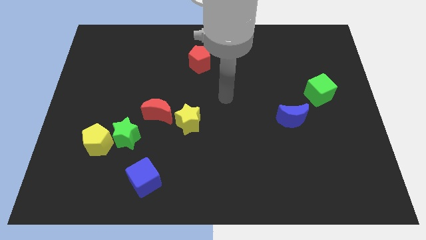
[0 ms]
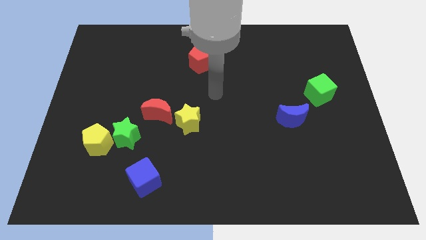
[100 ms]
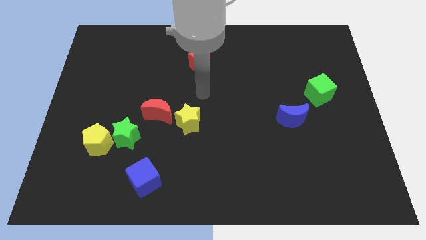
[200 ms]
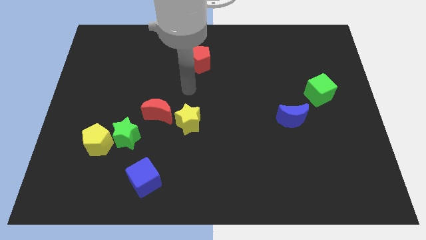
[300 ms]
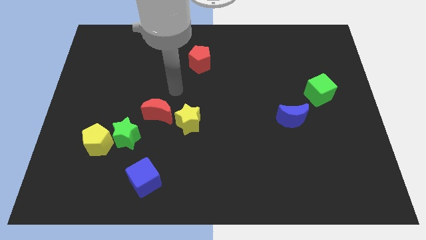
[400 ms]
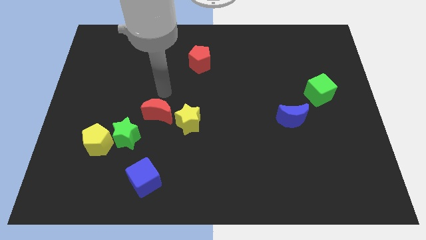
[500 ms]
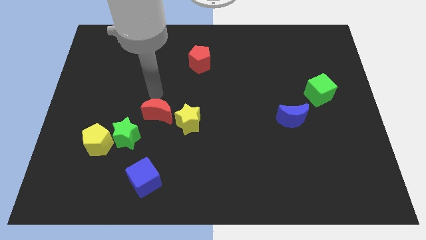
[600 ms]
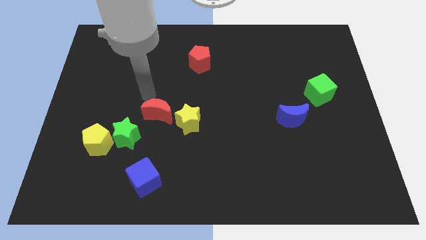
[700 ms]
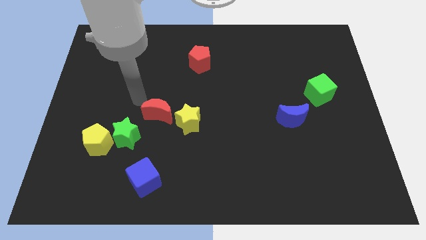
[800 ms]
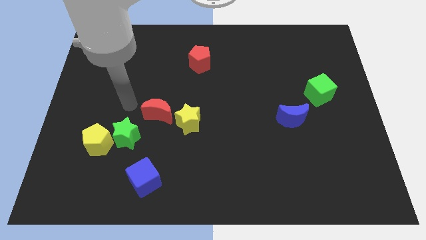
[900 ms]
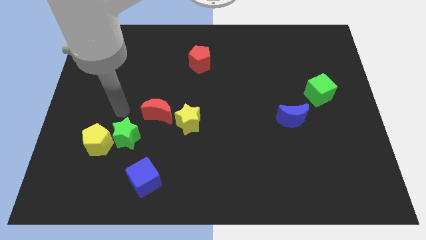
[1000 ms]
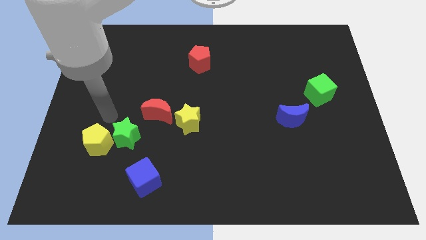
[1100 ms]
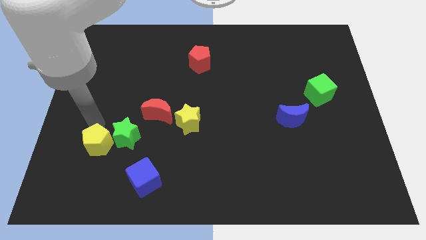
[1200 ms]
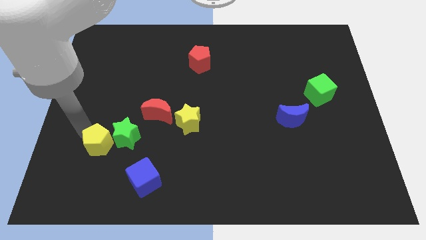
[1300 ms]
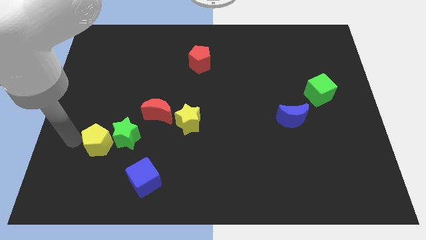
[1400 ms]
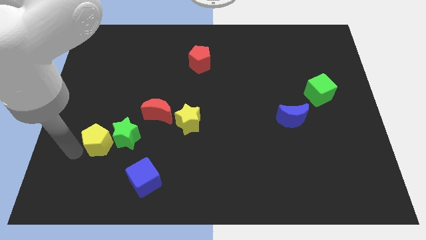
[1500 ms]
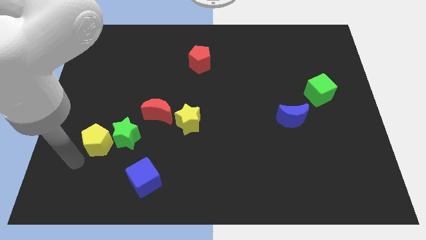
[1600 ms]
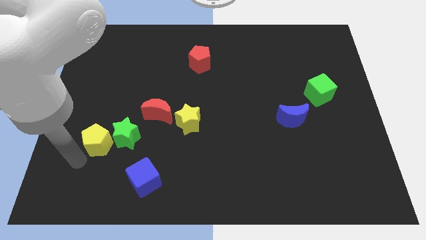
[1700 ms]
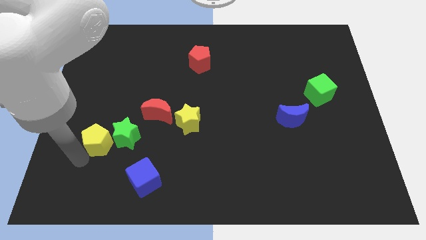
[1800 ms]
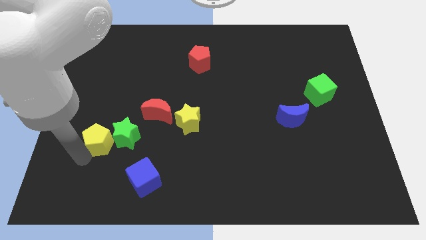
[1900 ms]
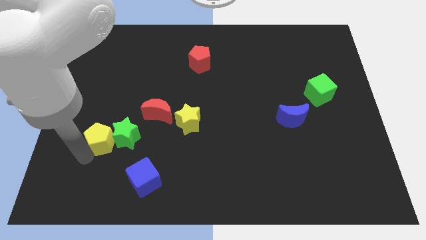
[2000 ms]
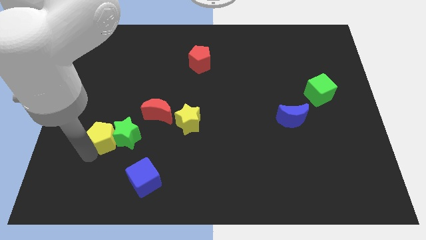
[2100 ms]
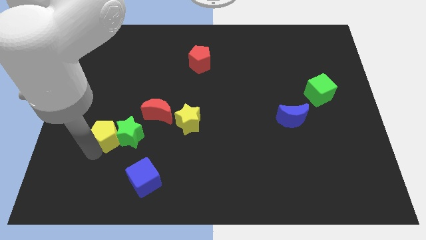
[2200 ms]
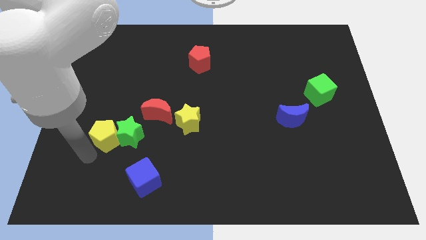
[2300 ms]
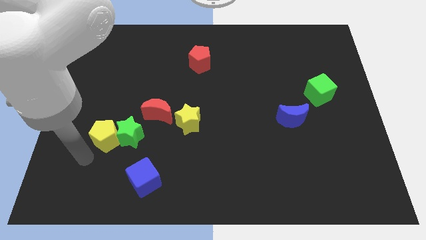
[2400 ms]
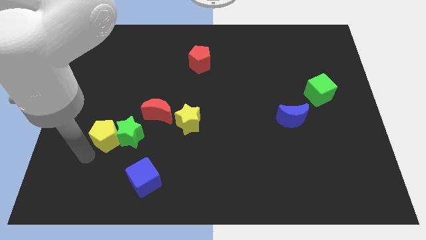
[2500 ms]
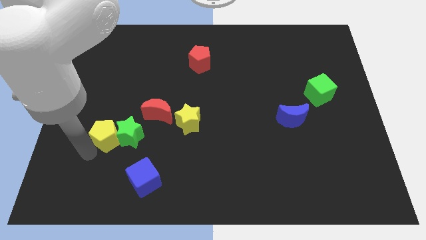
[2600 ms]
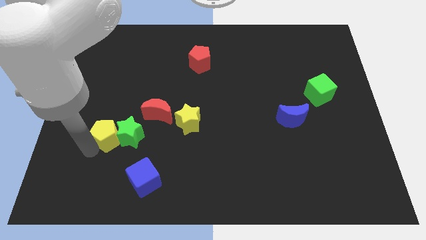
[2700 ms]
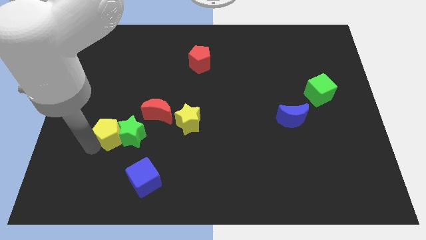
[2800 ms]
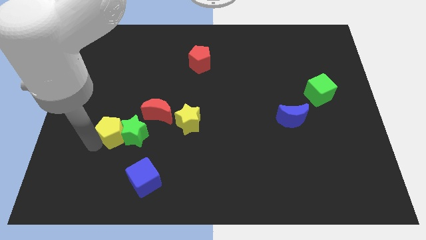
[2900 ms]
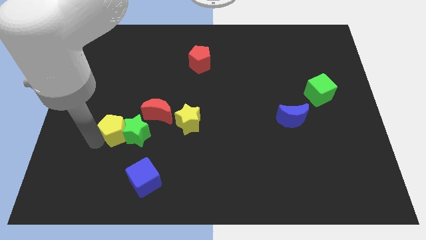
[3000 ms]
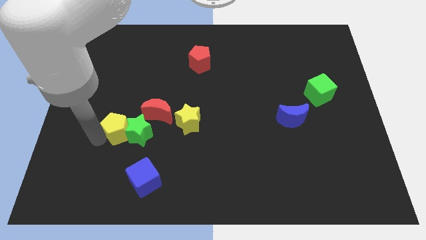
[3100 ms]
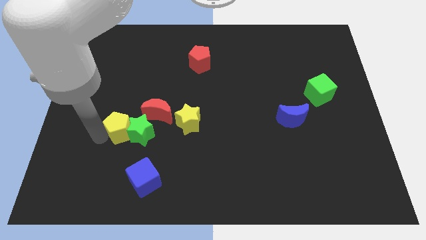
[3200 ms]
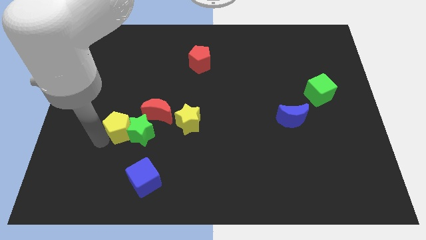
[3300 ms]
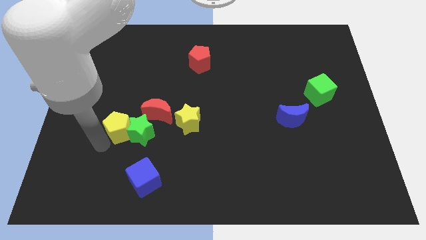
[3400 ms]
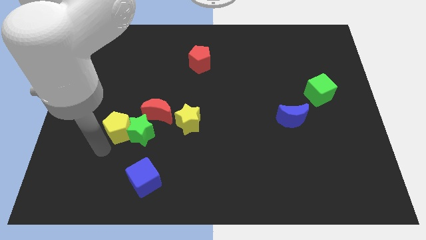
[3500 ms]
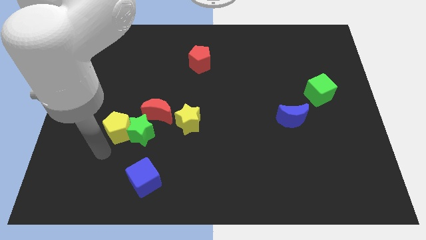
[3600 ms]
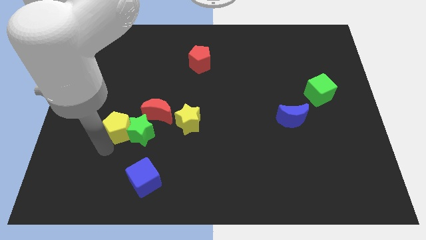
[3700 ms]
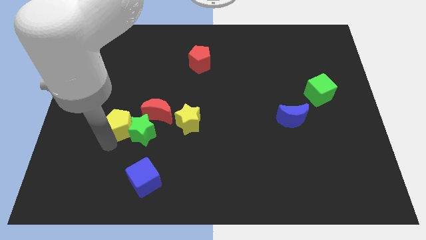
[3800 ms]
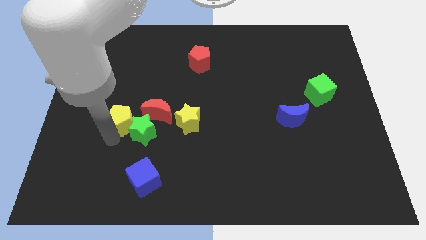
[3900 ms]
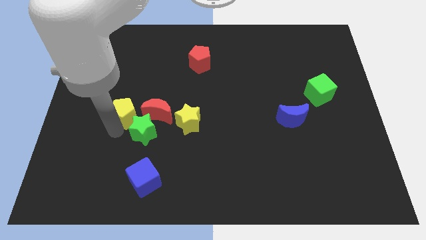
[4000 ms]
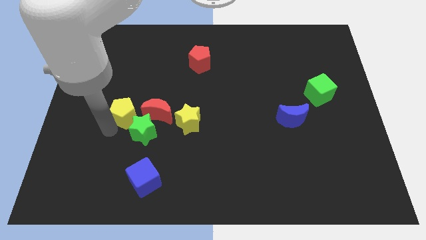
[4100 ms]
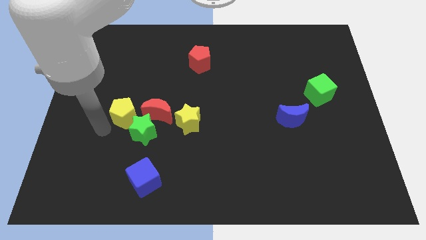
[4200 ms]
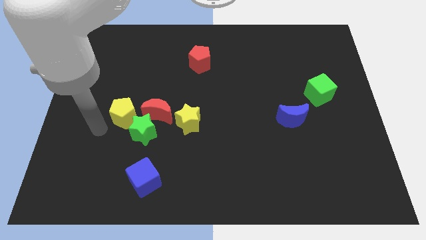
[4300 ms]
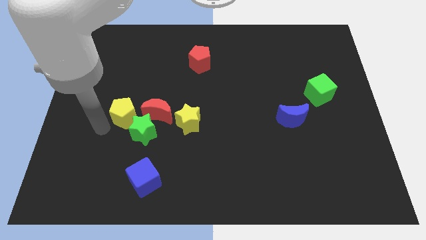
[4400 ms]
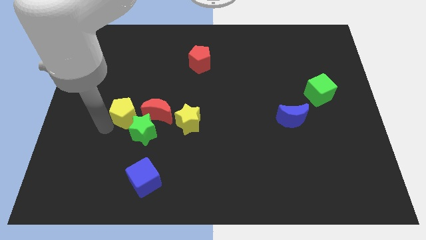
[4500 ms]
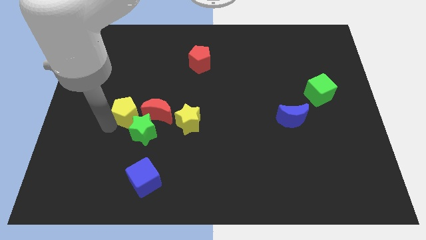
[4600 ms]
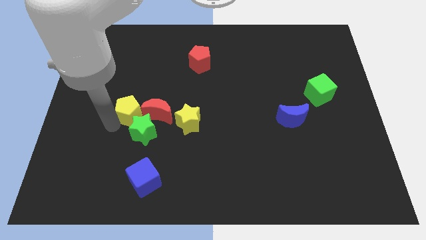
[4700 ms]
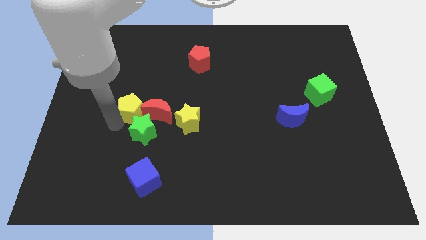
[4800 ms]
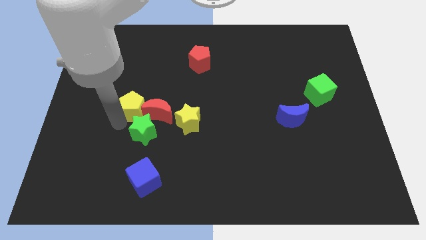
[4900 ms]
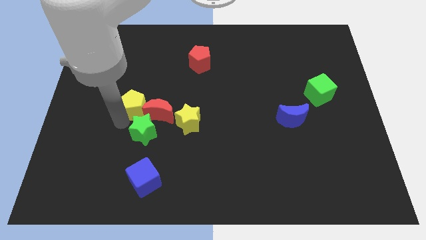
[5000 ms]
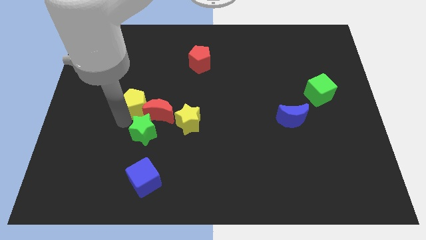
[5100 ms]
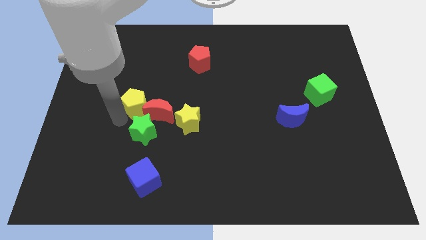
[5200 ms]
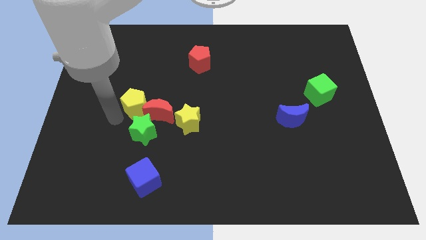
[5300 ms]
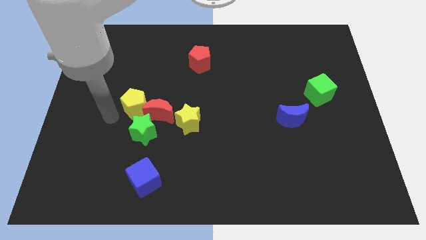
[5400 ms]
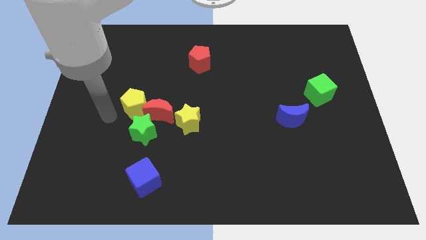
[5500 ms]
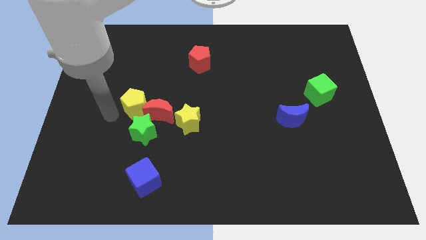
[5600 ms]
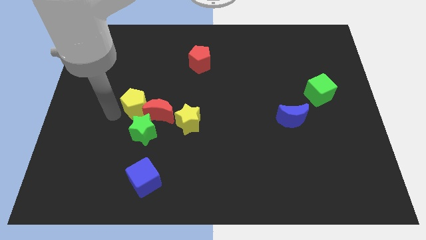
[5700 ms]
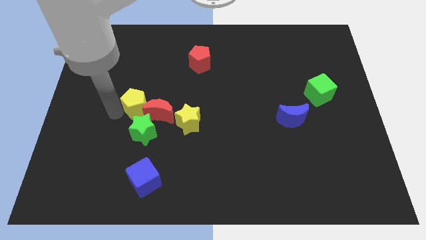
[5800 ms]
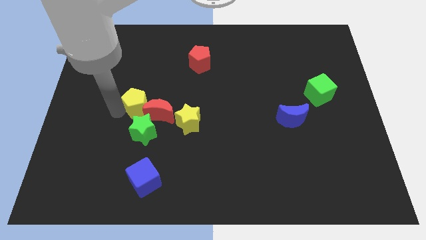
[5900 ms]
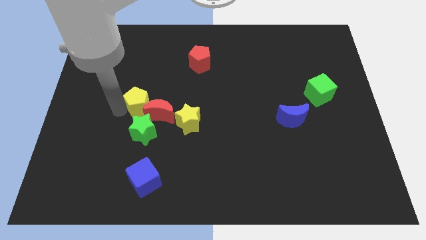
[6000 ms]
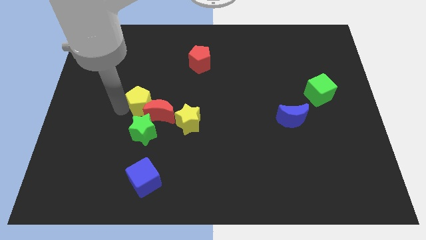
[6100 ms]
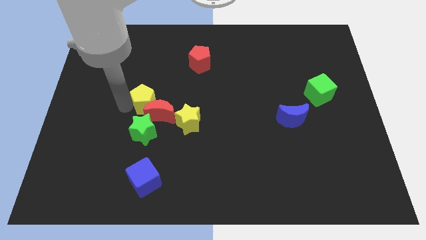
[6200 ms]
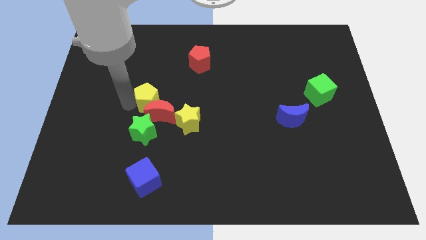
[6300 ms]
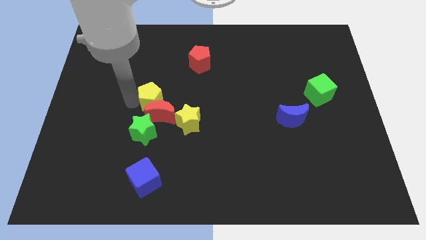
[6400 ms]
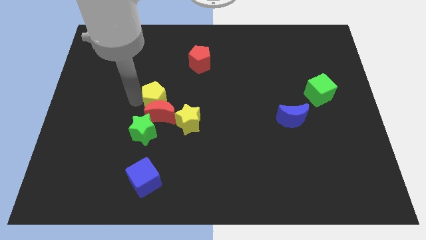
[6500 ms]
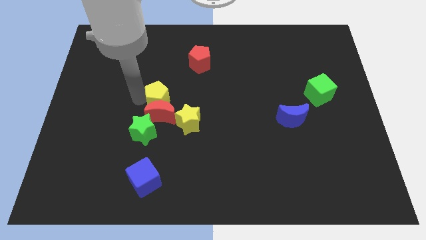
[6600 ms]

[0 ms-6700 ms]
slide the yellow pentagon to the top right of the red moon
